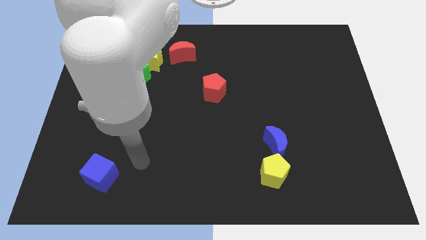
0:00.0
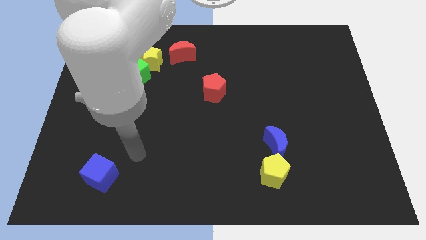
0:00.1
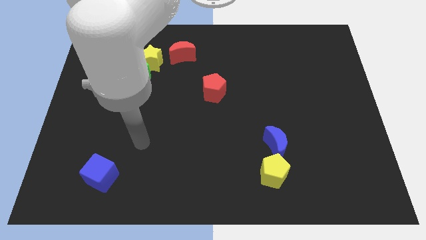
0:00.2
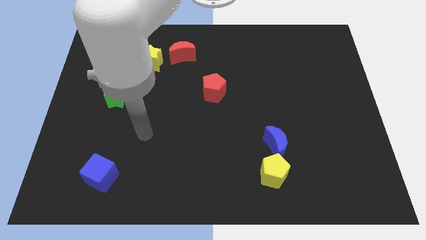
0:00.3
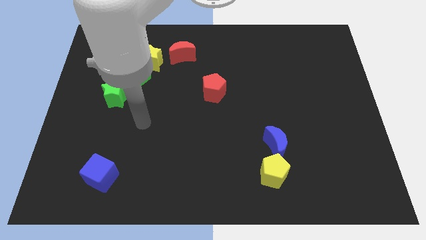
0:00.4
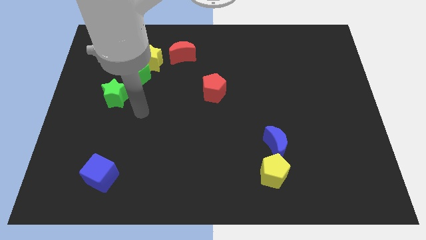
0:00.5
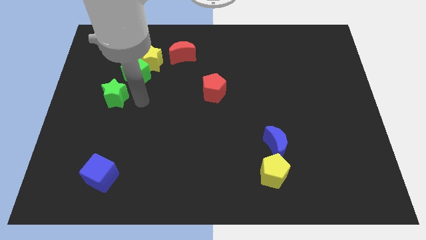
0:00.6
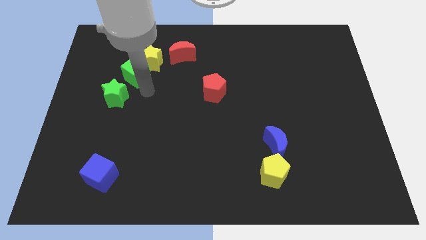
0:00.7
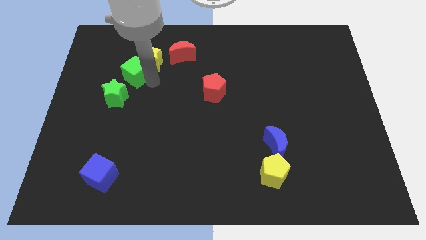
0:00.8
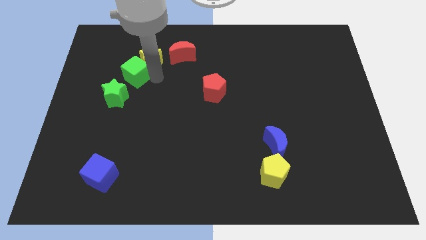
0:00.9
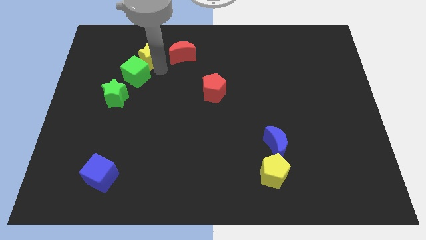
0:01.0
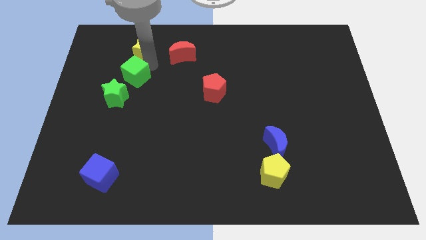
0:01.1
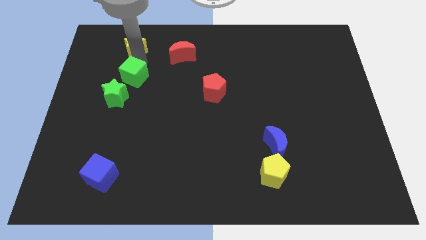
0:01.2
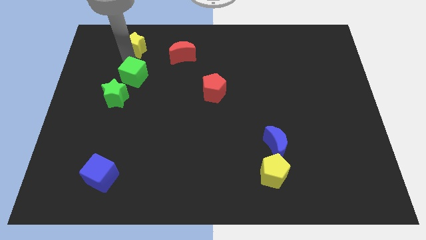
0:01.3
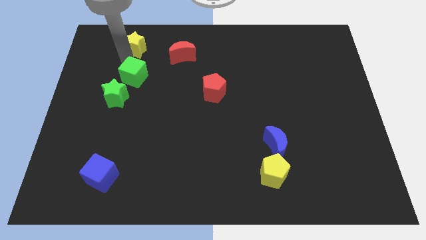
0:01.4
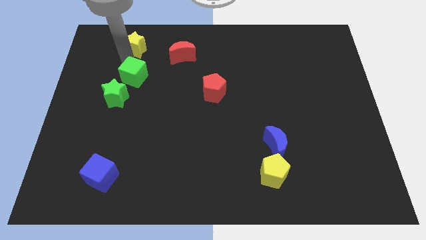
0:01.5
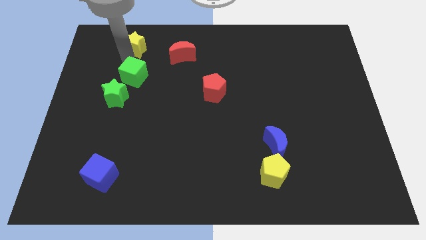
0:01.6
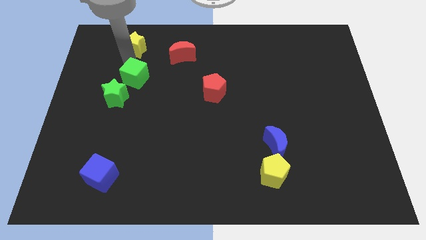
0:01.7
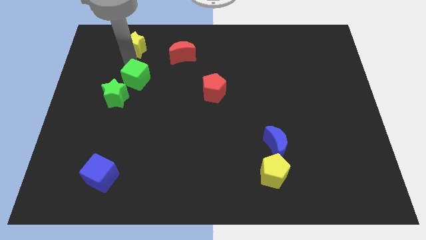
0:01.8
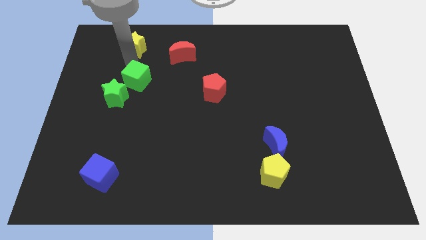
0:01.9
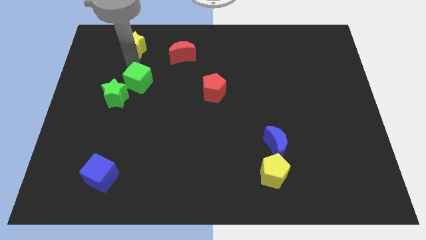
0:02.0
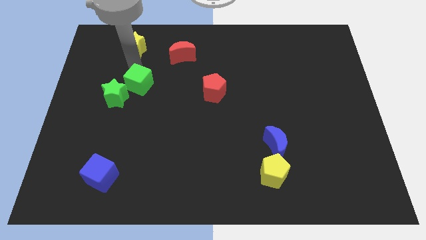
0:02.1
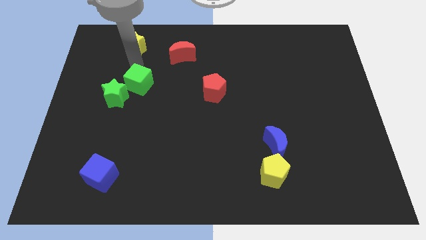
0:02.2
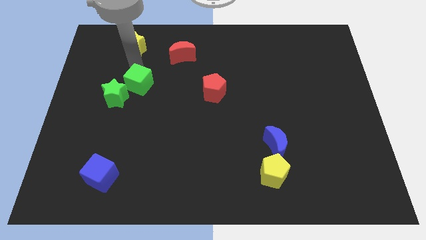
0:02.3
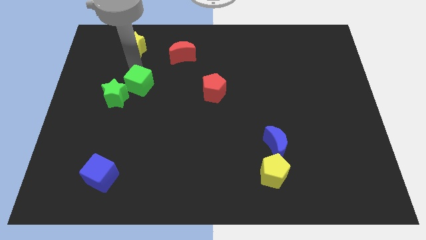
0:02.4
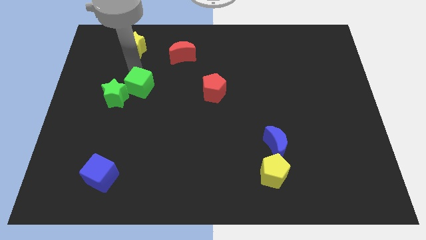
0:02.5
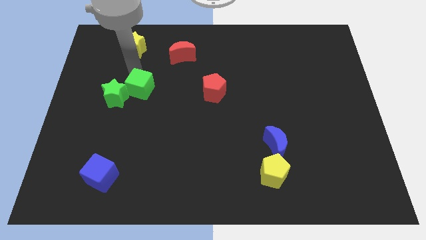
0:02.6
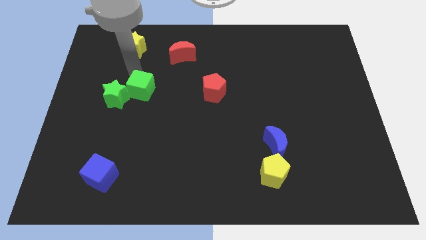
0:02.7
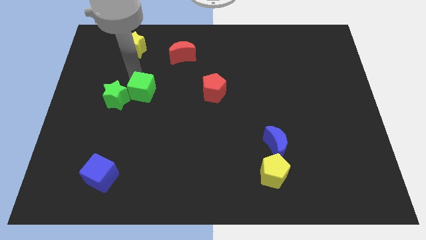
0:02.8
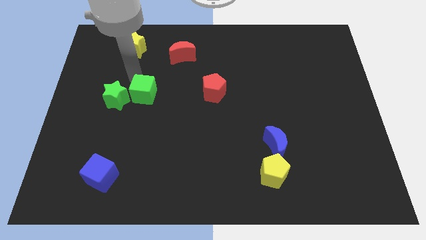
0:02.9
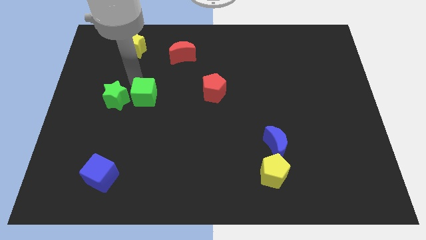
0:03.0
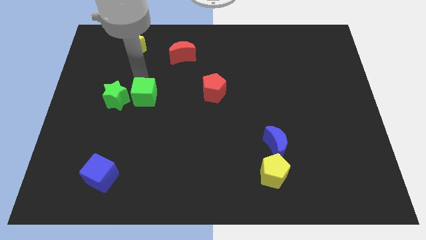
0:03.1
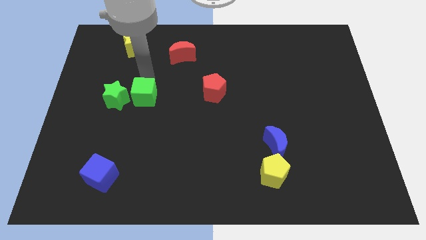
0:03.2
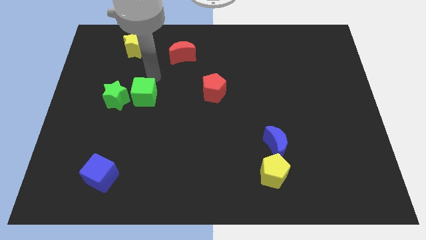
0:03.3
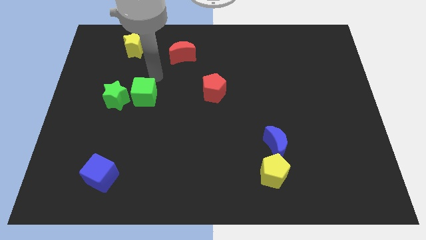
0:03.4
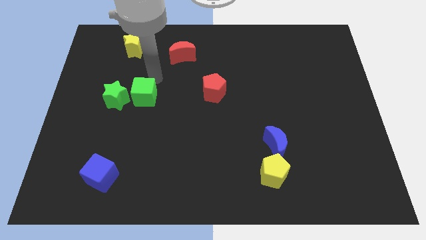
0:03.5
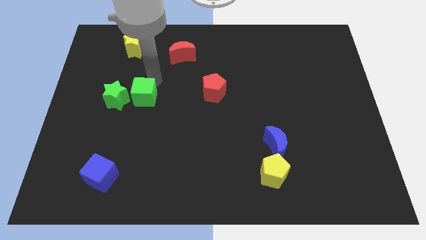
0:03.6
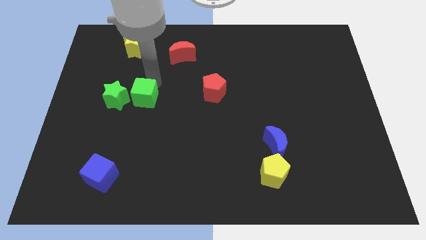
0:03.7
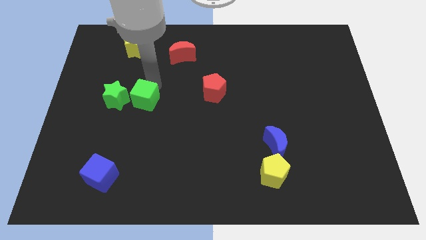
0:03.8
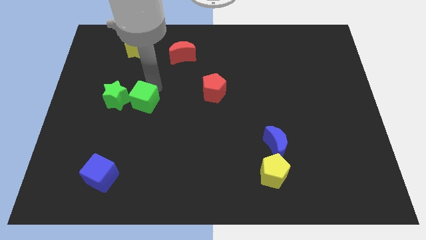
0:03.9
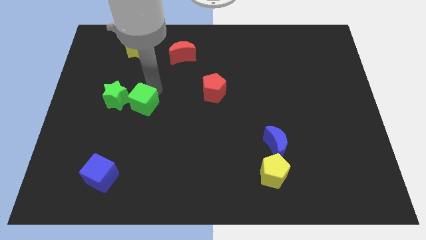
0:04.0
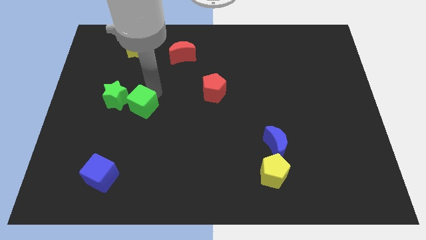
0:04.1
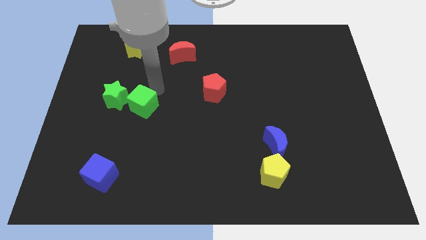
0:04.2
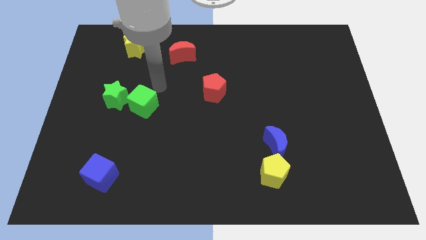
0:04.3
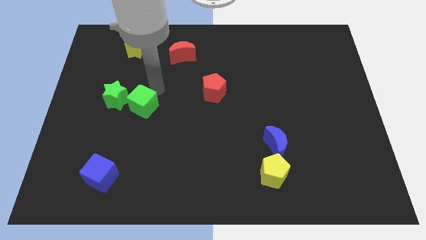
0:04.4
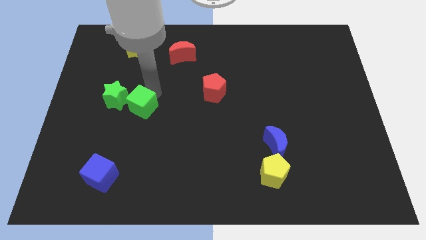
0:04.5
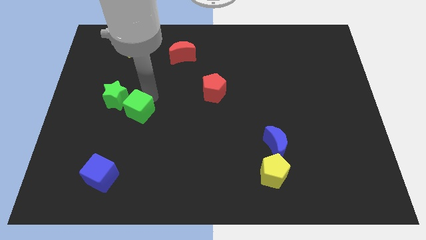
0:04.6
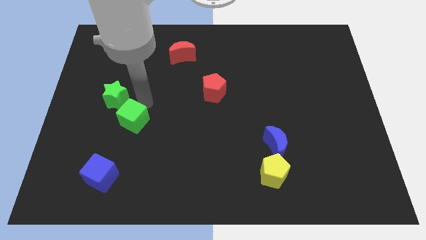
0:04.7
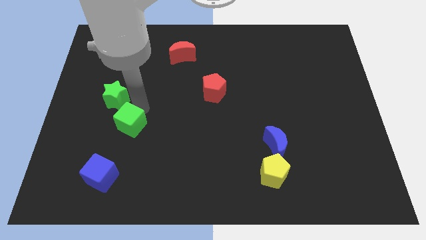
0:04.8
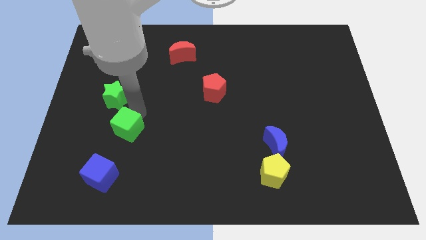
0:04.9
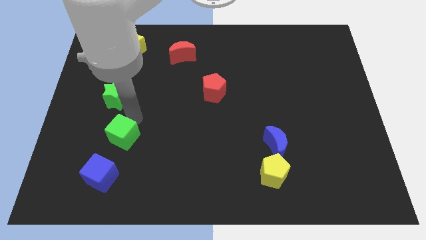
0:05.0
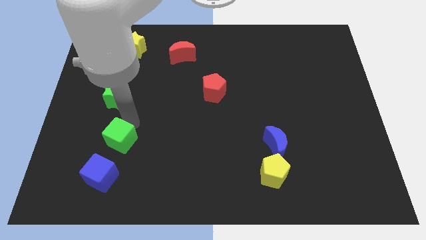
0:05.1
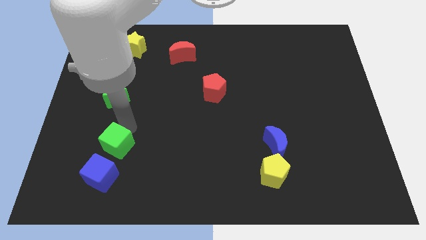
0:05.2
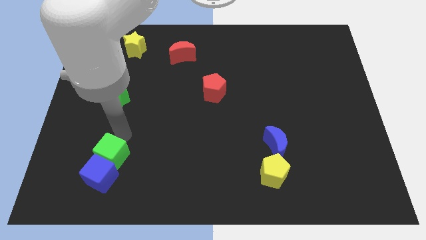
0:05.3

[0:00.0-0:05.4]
push the green cube close to the blue cube

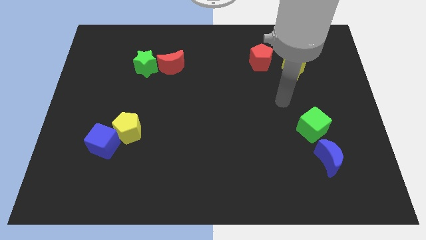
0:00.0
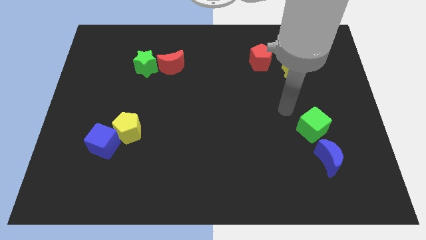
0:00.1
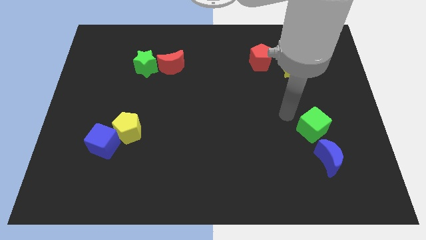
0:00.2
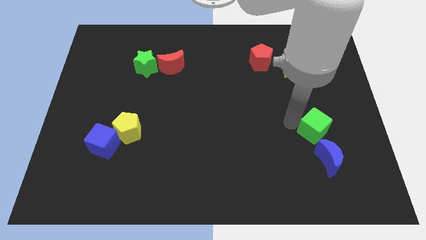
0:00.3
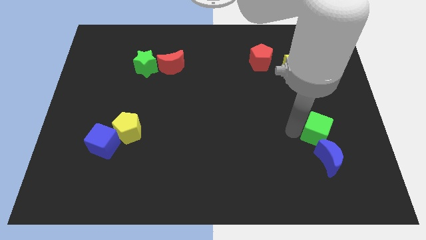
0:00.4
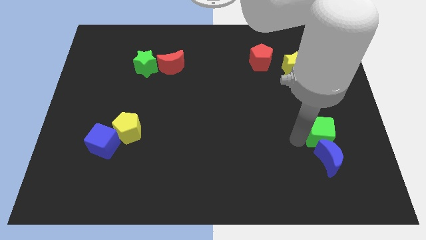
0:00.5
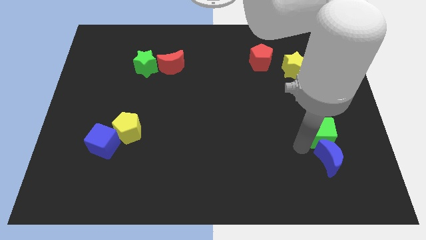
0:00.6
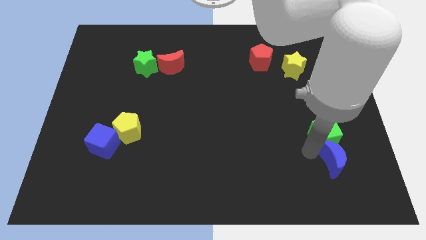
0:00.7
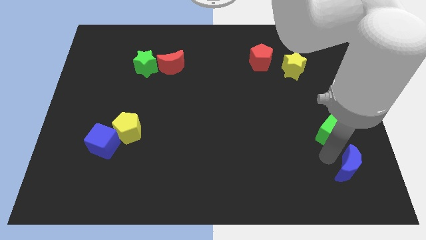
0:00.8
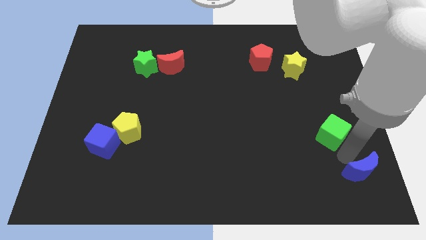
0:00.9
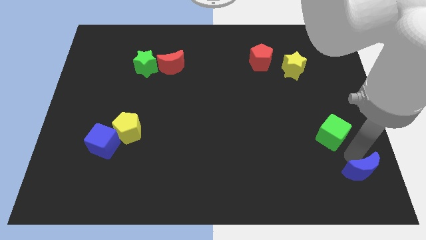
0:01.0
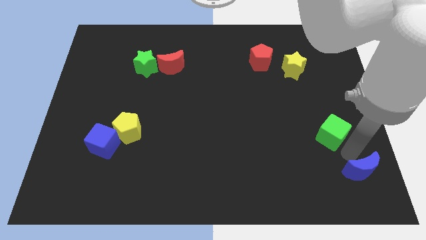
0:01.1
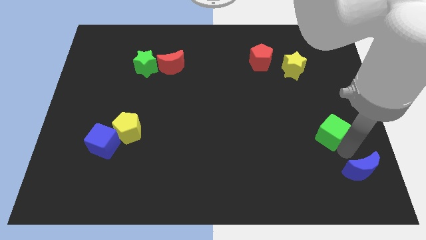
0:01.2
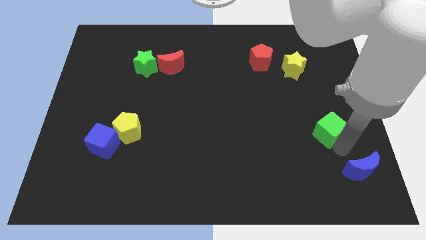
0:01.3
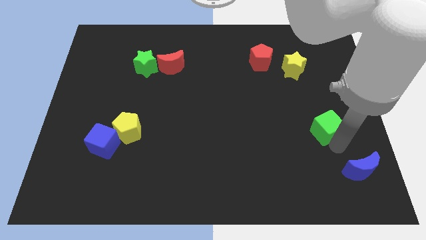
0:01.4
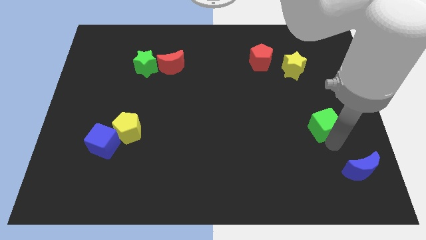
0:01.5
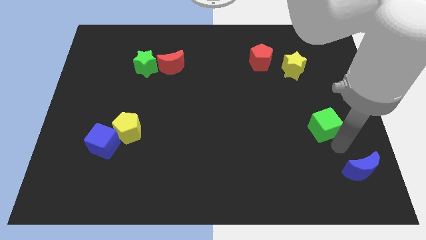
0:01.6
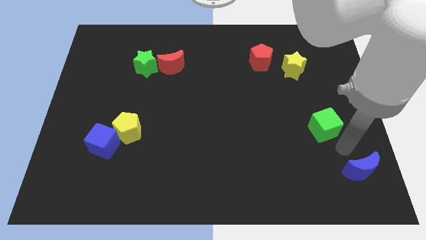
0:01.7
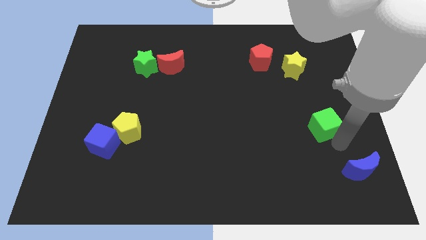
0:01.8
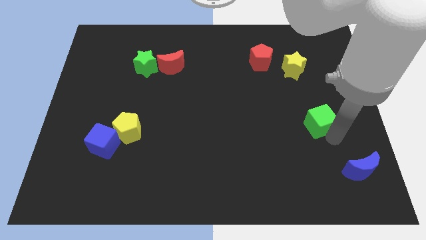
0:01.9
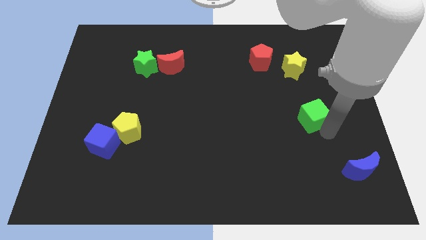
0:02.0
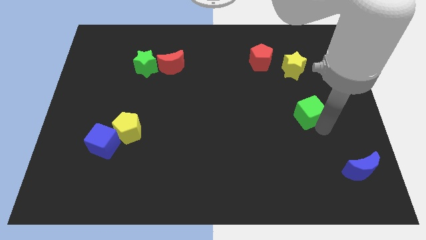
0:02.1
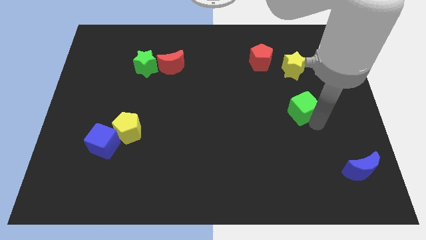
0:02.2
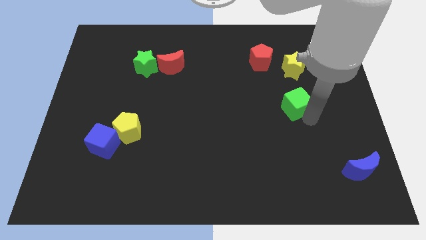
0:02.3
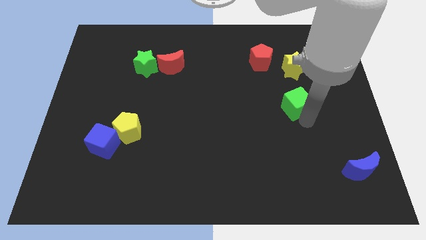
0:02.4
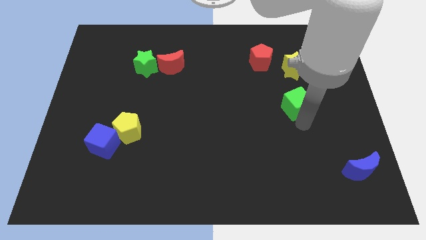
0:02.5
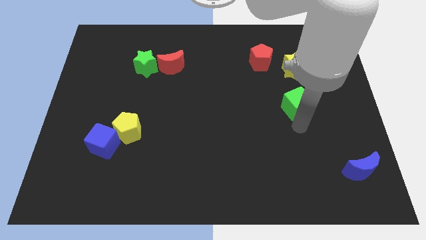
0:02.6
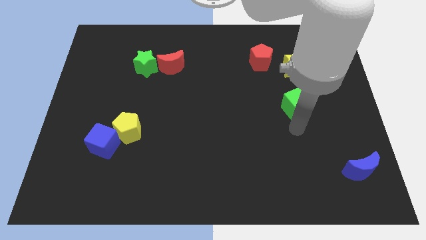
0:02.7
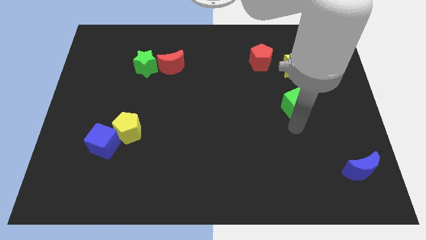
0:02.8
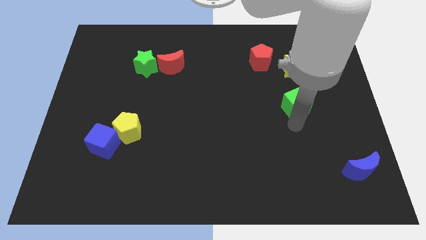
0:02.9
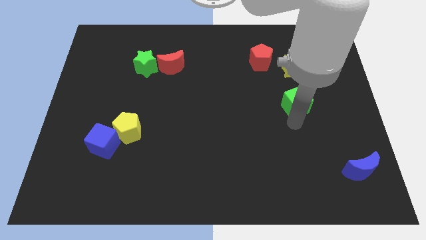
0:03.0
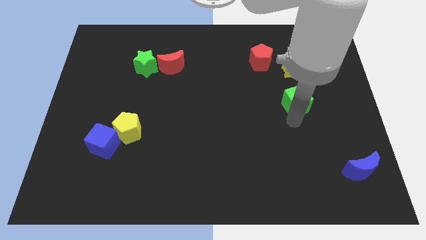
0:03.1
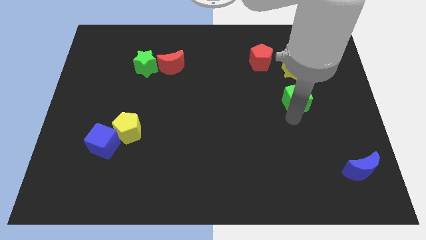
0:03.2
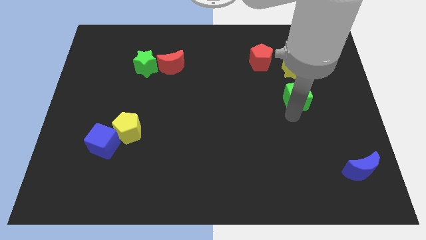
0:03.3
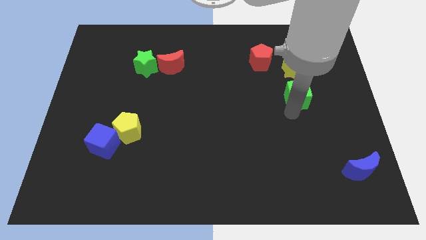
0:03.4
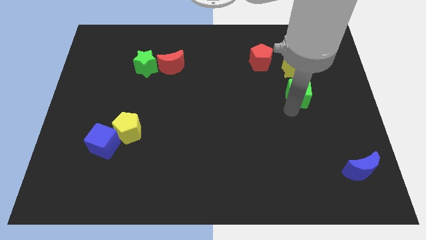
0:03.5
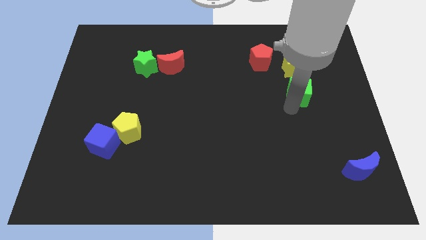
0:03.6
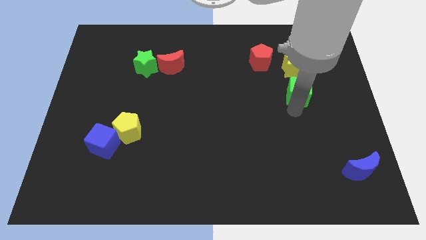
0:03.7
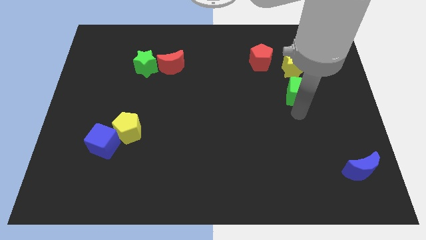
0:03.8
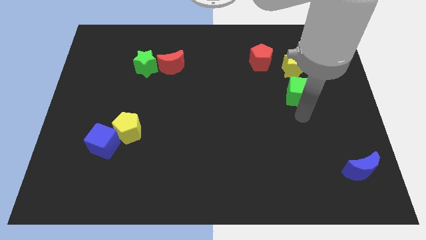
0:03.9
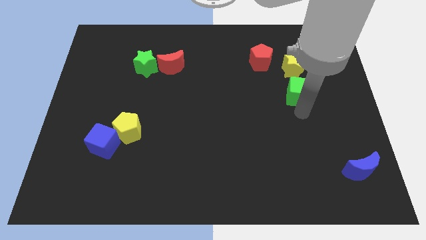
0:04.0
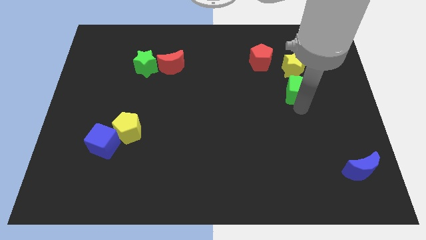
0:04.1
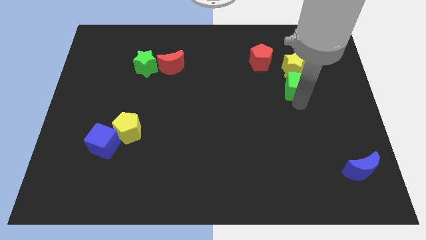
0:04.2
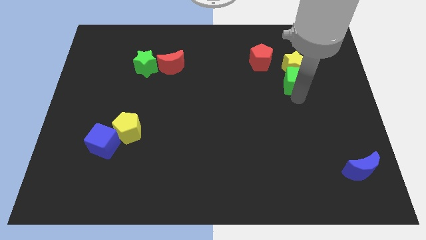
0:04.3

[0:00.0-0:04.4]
slide the green cube to the yellow star
